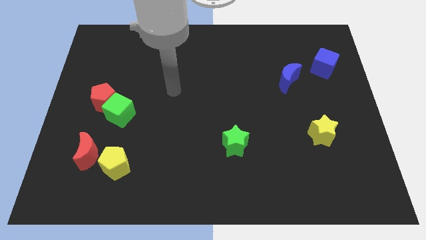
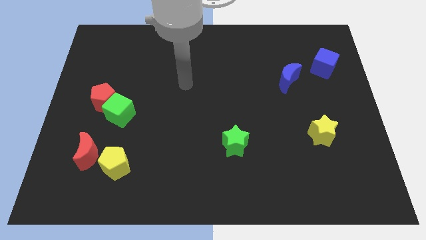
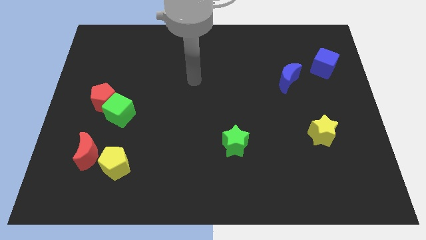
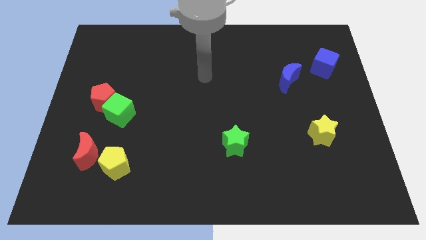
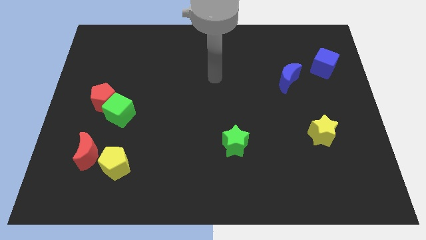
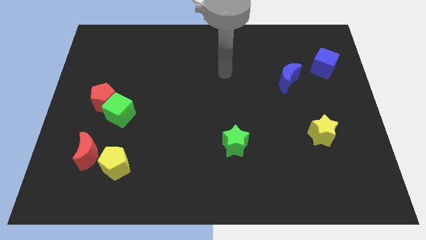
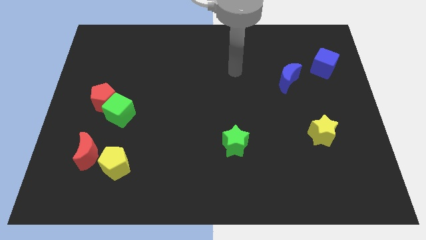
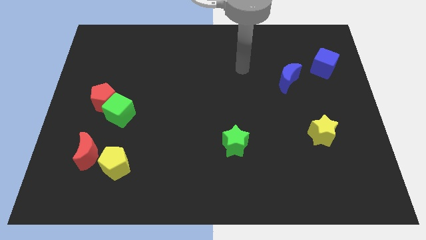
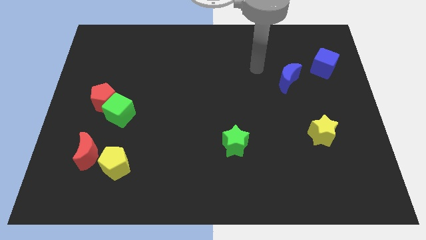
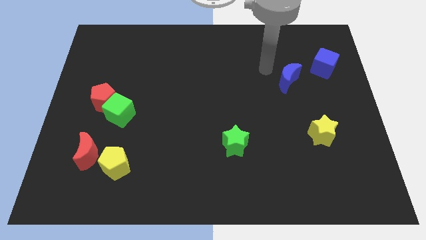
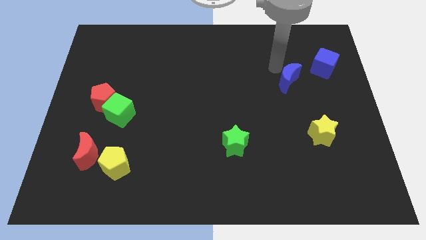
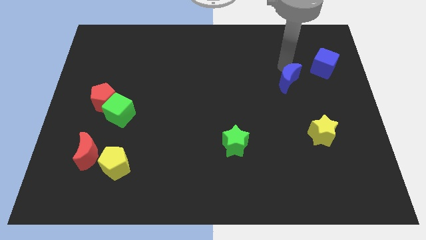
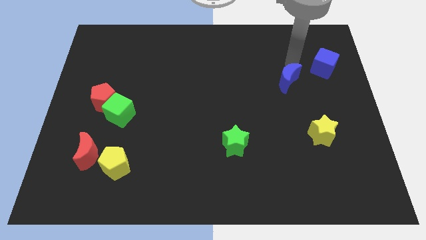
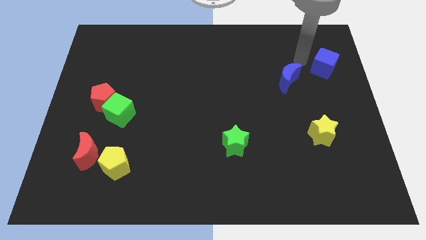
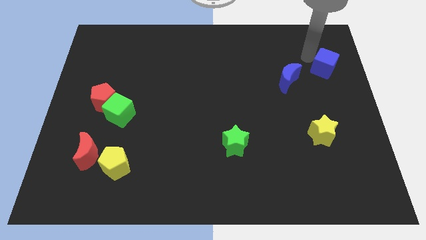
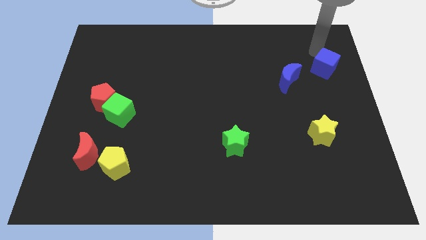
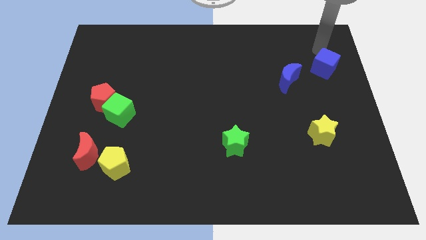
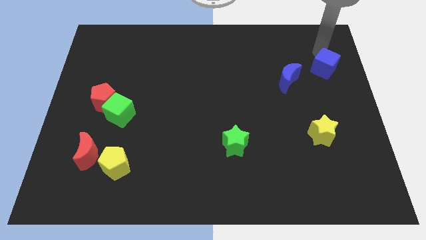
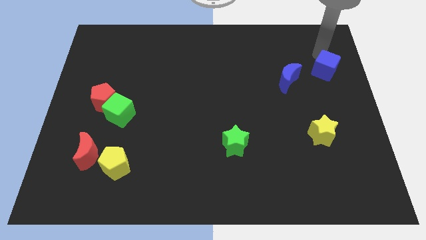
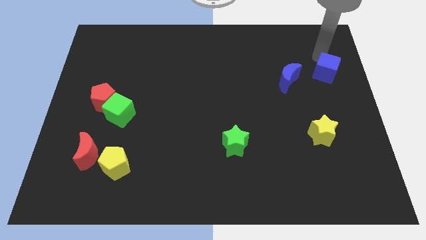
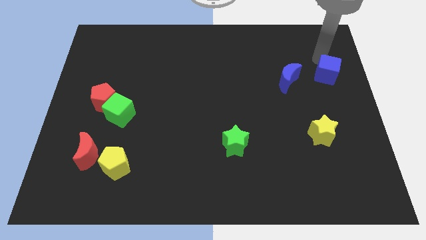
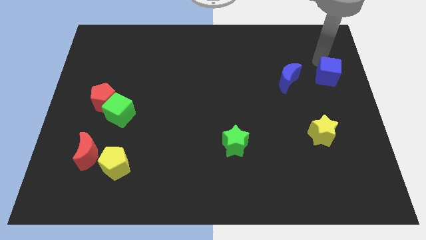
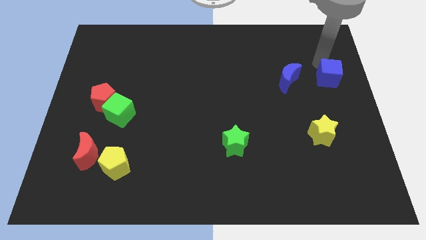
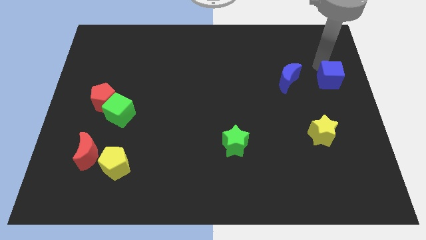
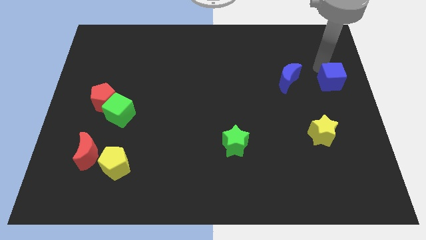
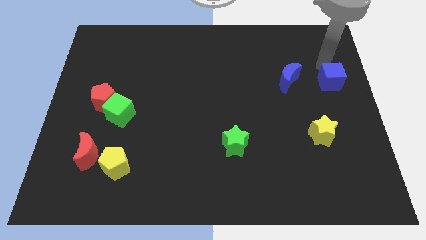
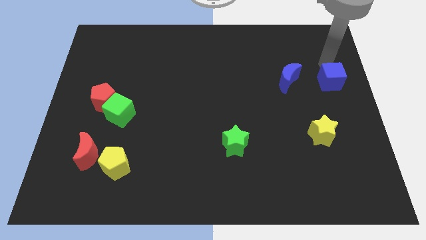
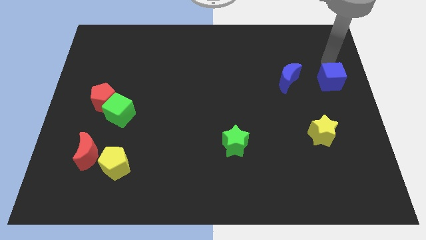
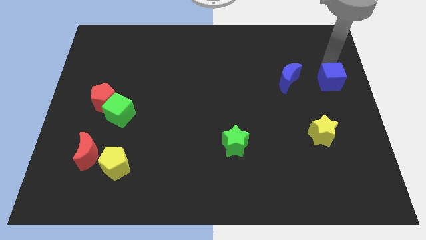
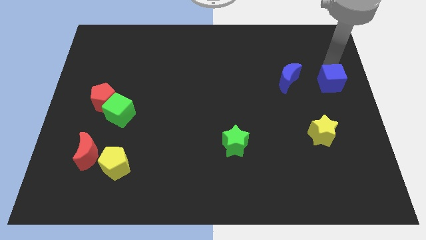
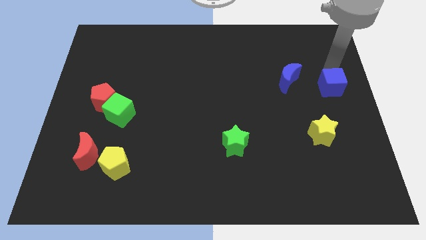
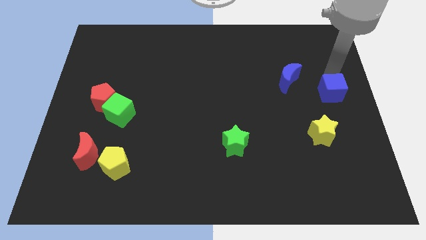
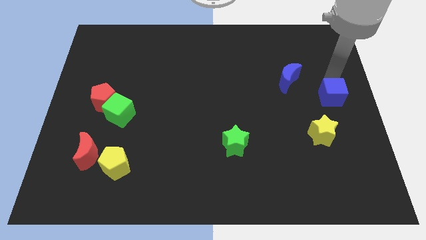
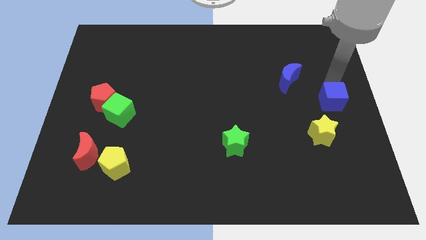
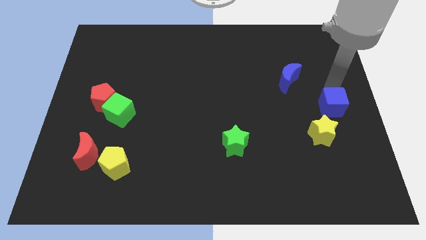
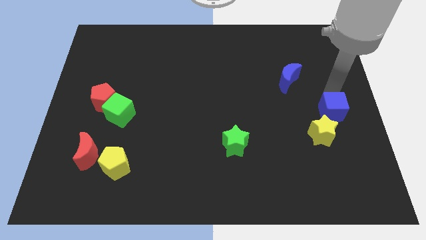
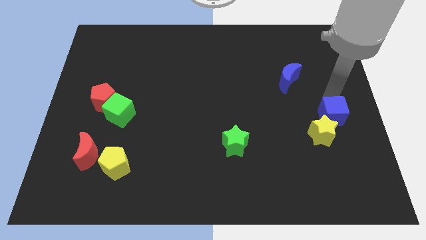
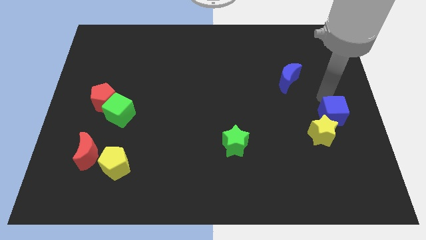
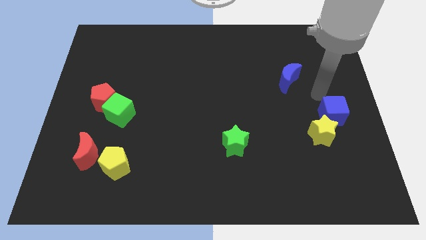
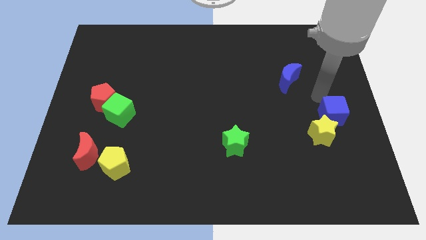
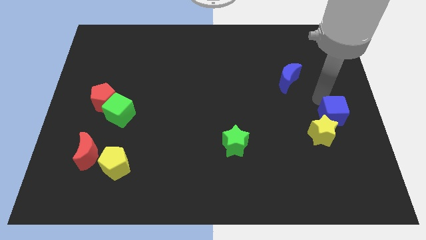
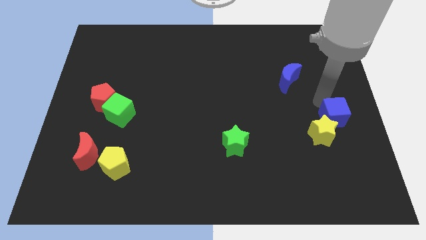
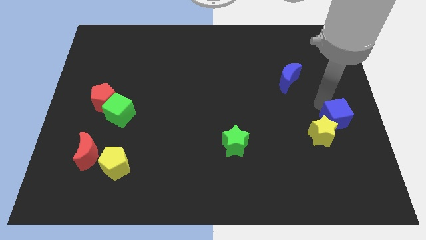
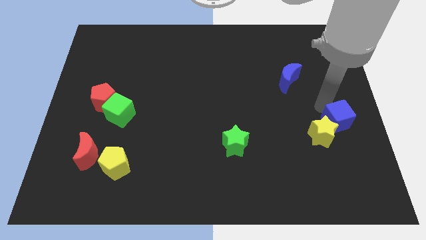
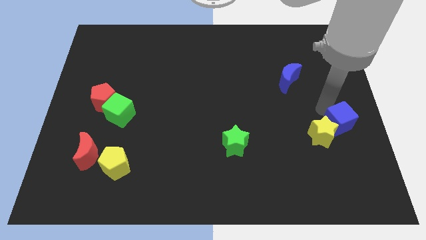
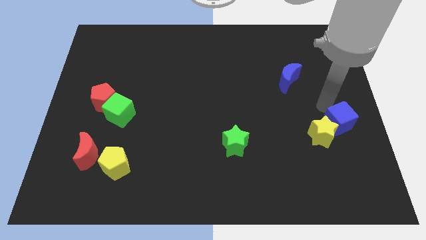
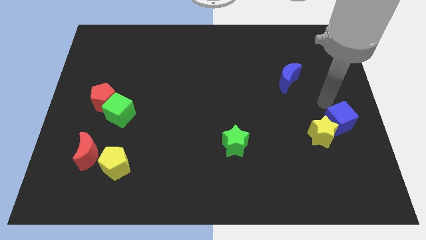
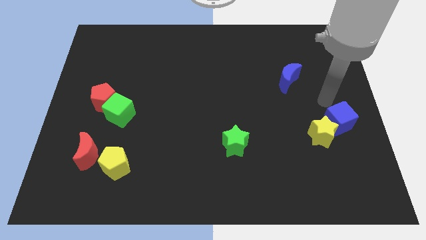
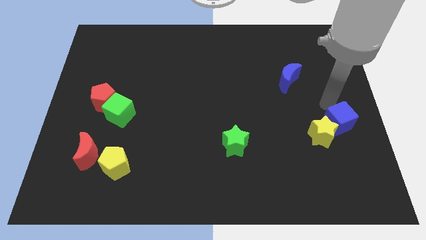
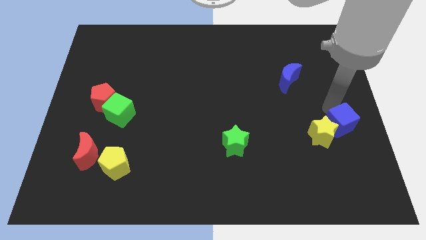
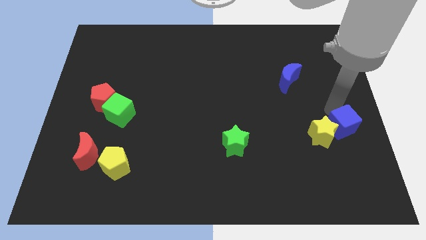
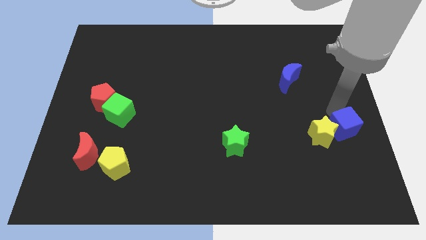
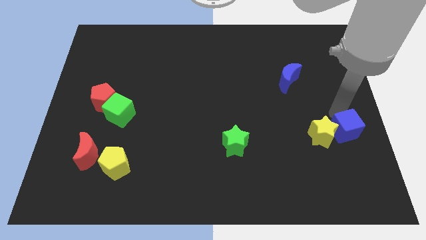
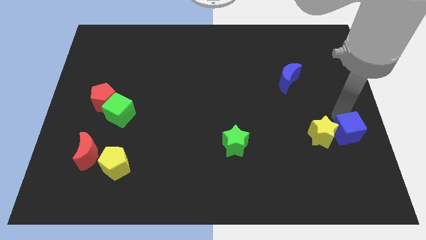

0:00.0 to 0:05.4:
push the blue cube down

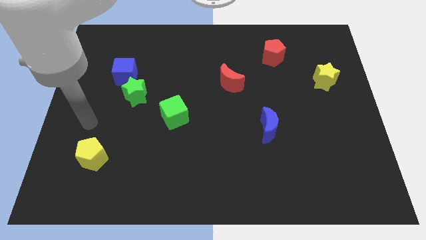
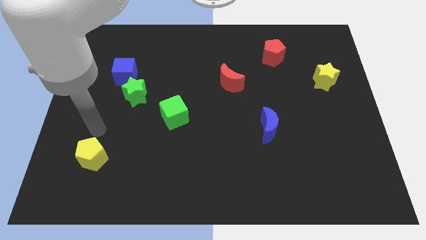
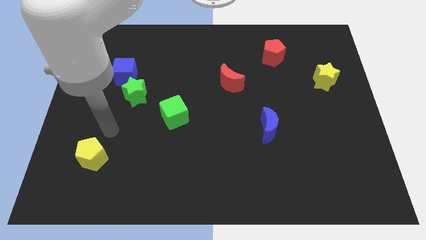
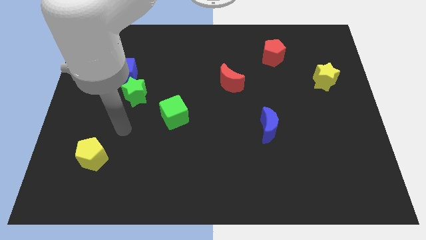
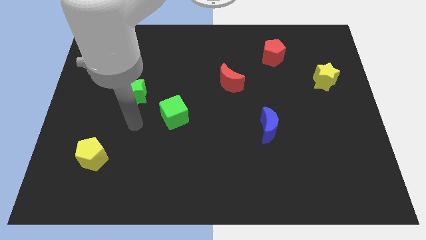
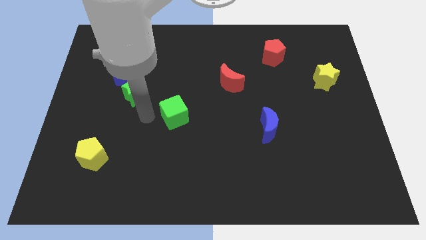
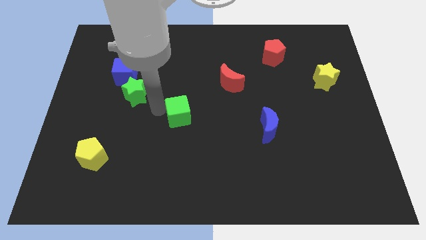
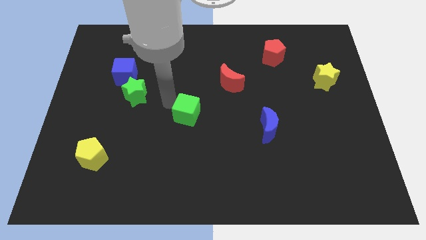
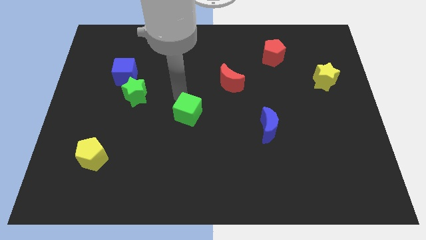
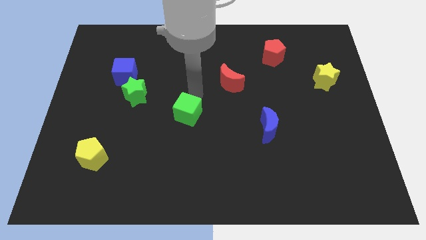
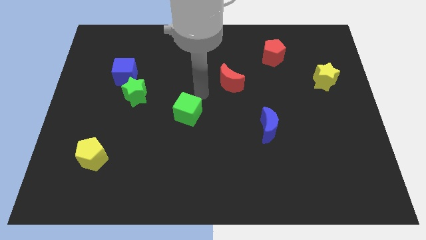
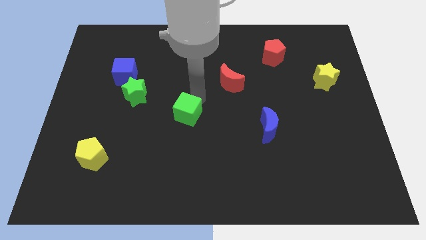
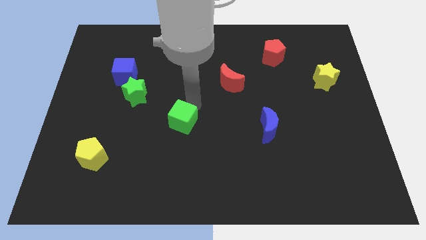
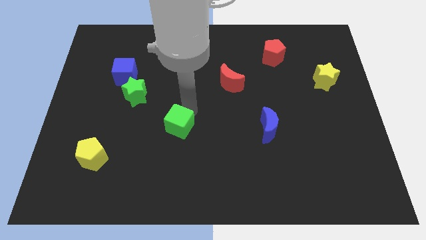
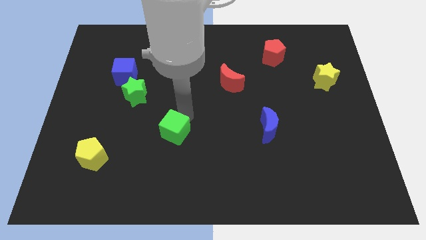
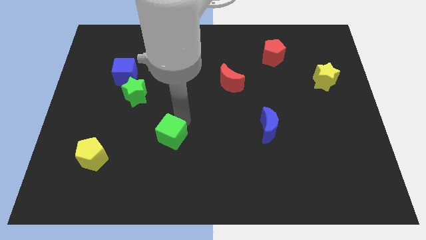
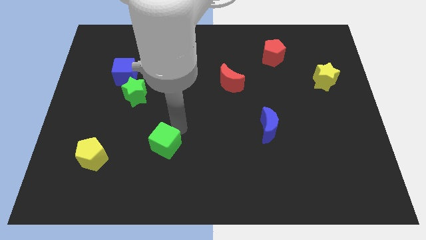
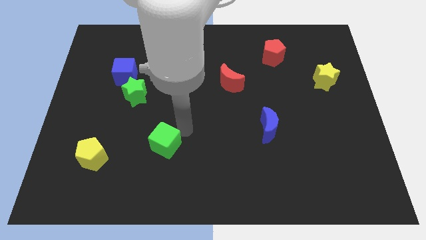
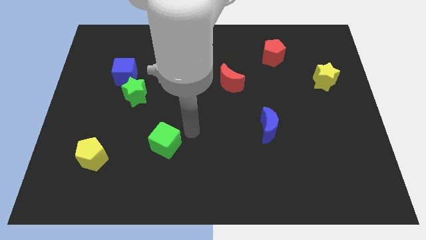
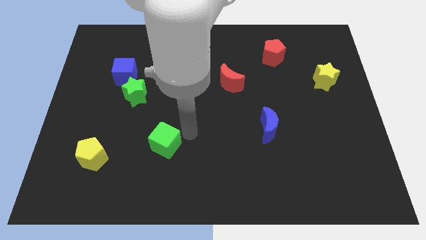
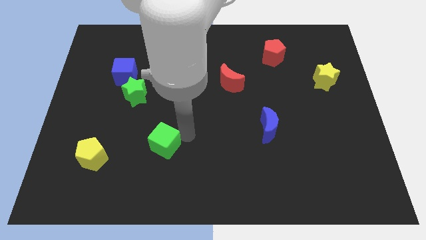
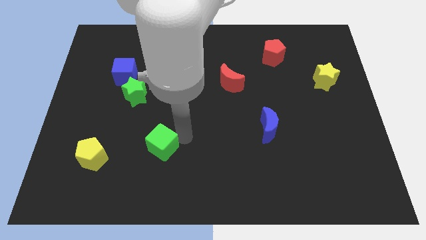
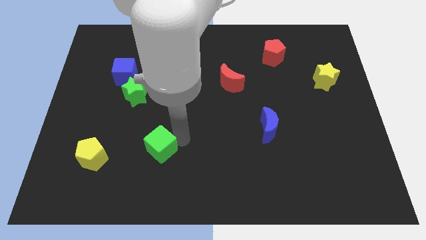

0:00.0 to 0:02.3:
move the green cube diagonally down and to the left somewhat

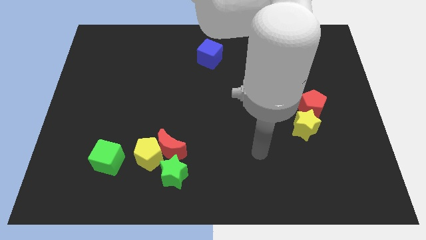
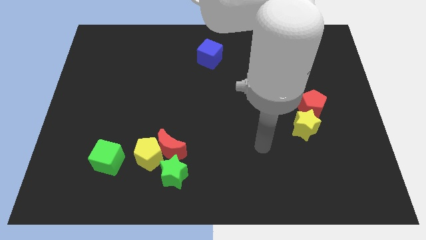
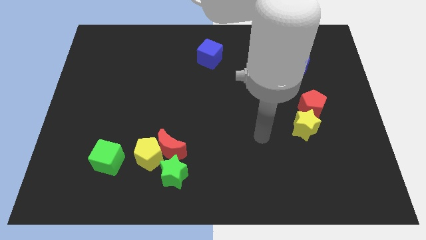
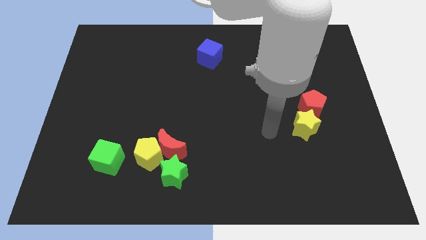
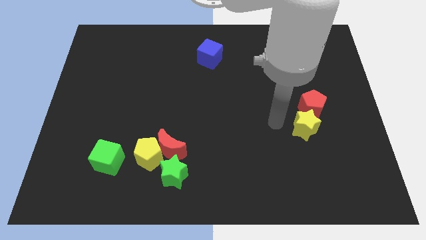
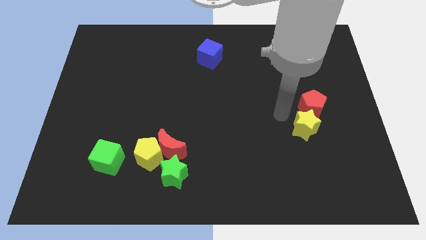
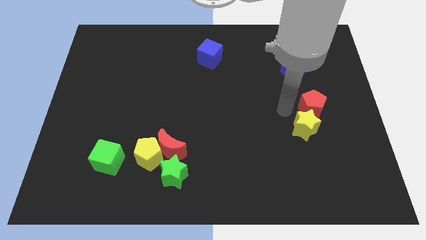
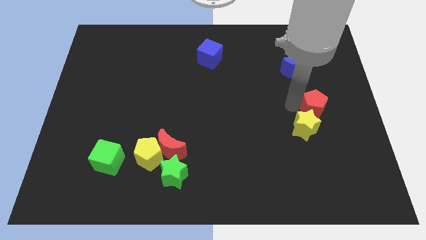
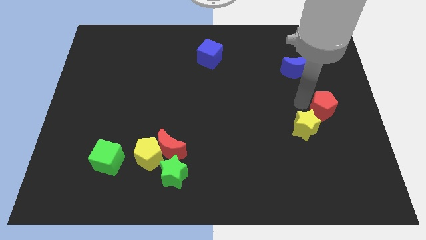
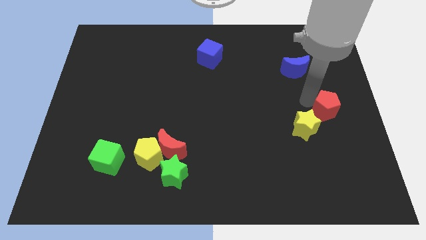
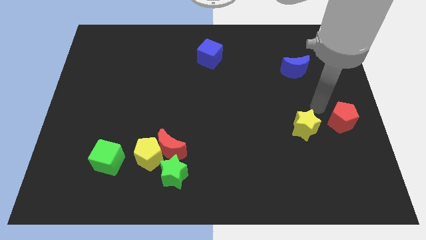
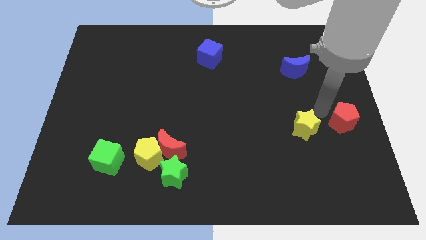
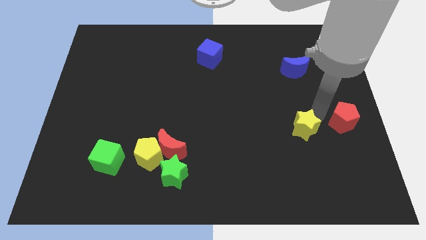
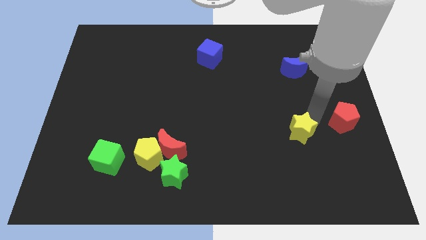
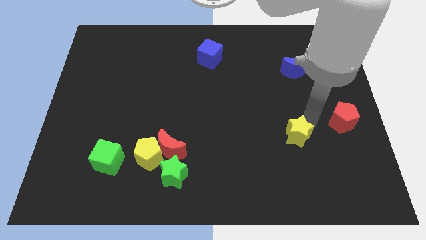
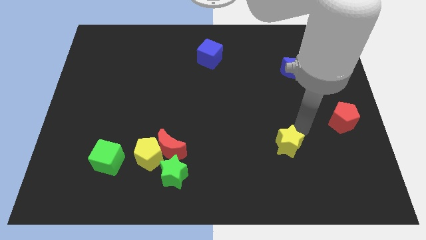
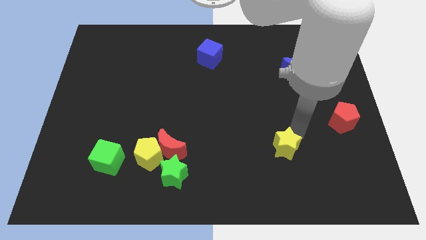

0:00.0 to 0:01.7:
slightly slide the yellow star downwards and then to the left
